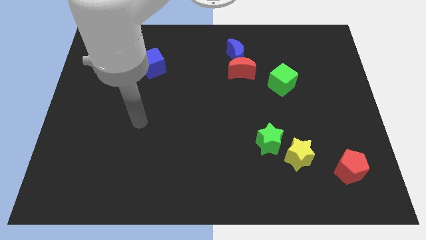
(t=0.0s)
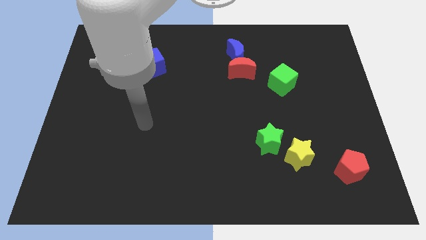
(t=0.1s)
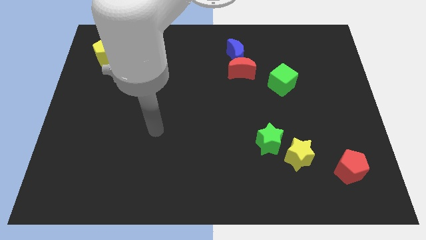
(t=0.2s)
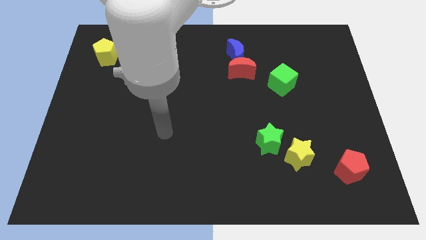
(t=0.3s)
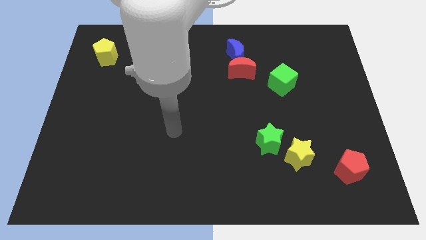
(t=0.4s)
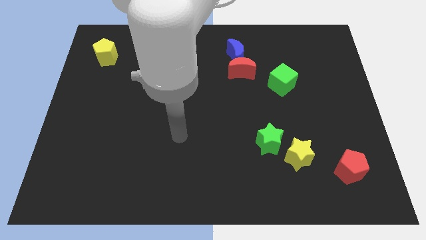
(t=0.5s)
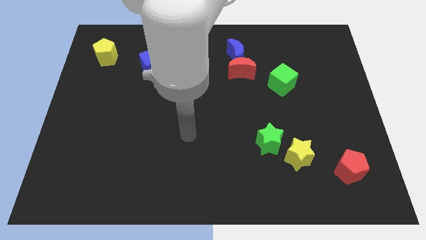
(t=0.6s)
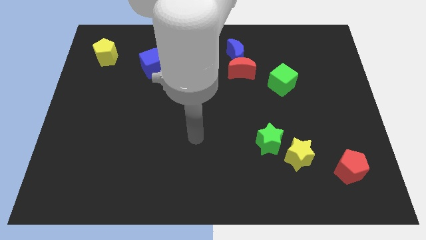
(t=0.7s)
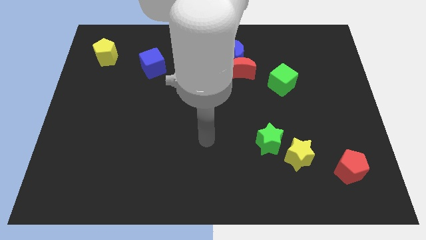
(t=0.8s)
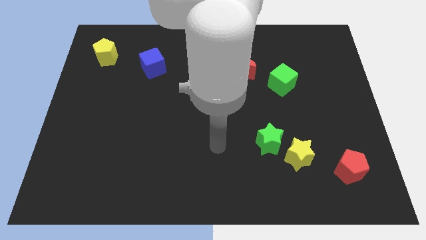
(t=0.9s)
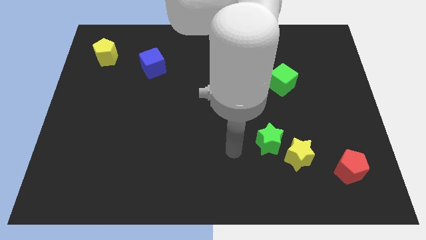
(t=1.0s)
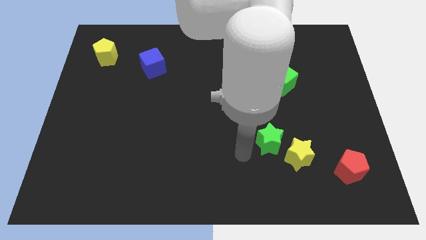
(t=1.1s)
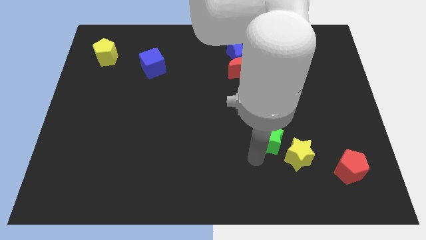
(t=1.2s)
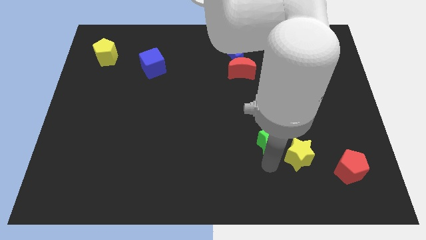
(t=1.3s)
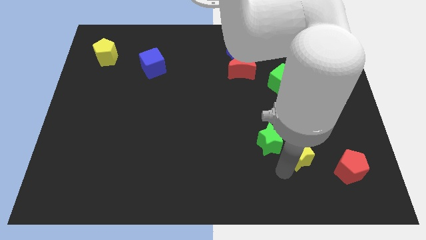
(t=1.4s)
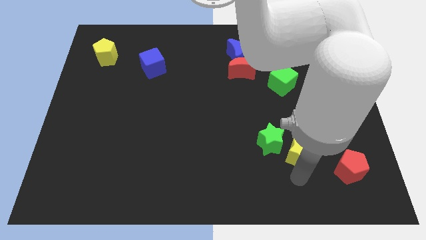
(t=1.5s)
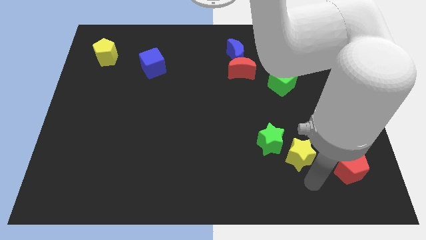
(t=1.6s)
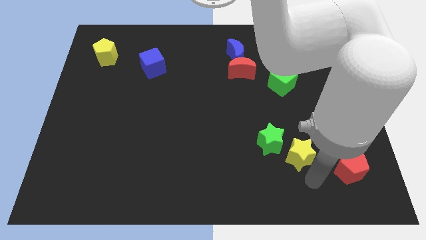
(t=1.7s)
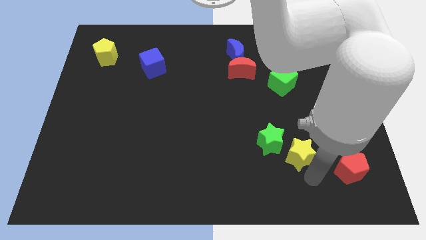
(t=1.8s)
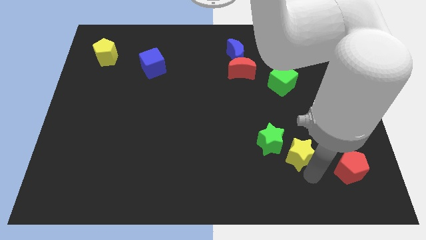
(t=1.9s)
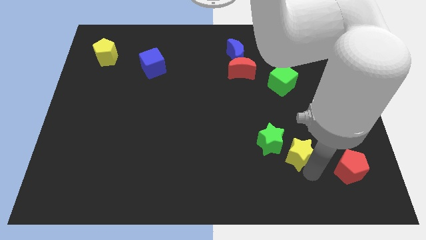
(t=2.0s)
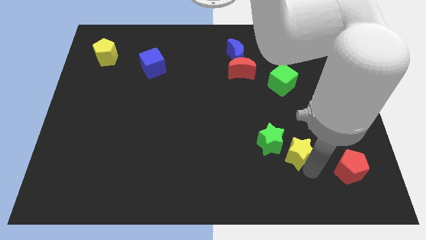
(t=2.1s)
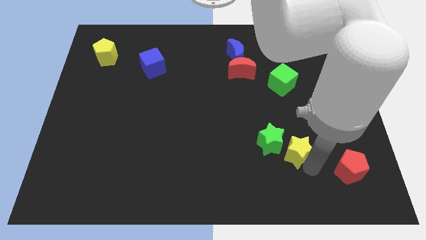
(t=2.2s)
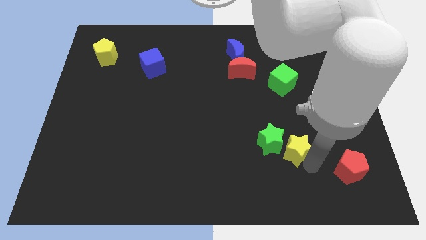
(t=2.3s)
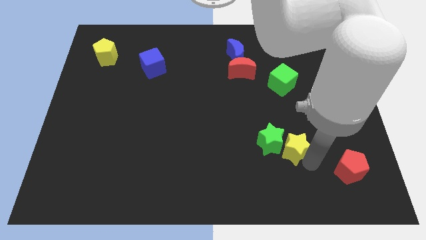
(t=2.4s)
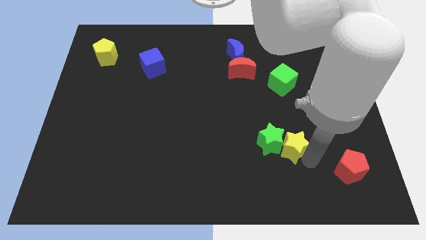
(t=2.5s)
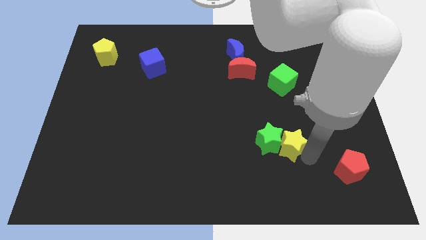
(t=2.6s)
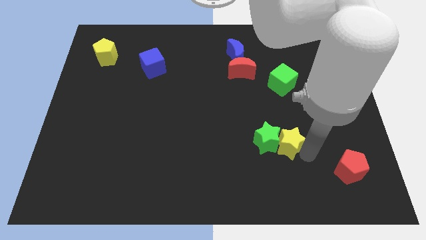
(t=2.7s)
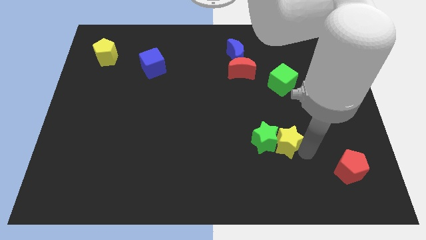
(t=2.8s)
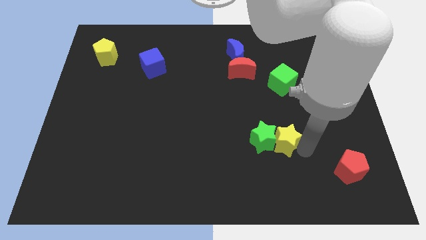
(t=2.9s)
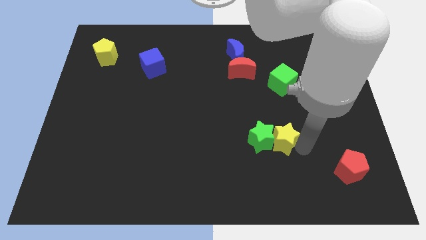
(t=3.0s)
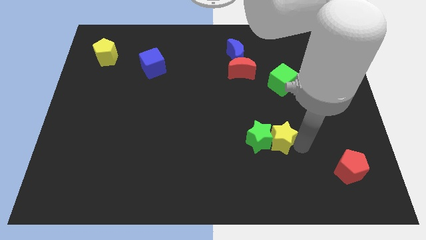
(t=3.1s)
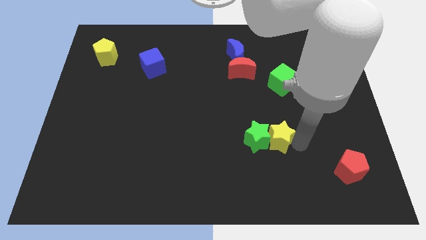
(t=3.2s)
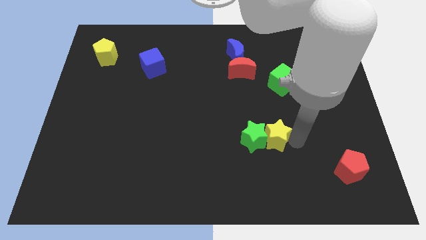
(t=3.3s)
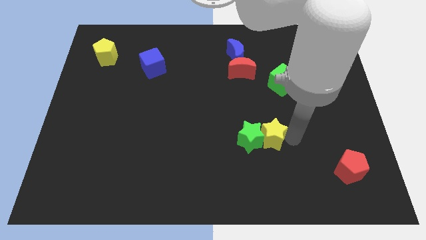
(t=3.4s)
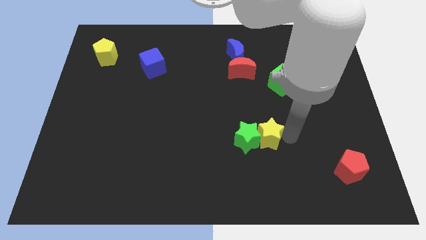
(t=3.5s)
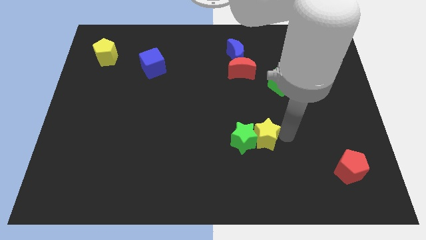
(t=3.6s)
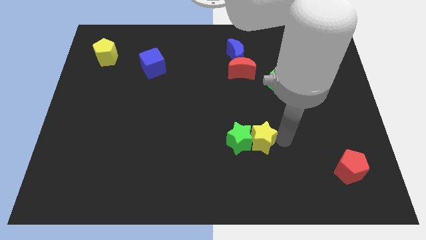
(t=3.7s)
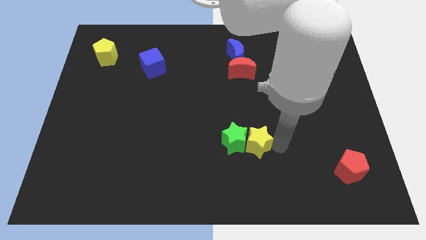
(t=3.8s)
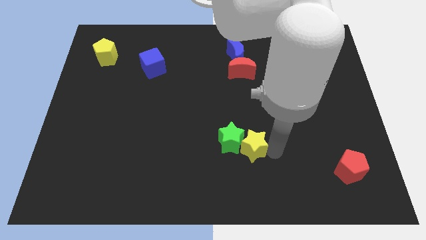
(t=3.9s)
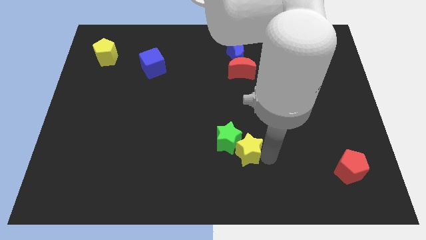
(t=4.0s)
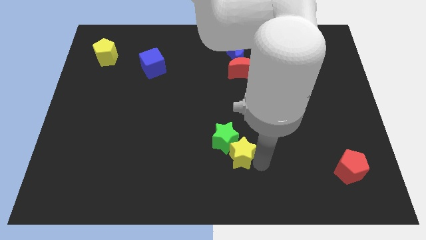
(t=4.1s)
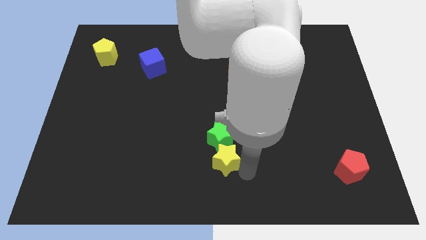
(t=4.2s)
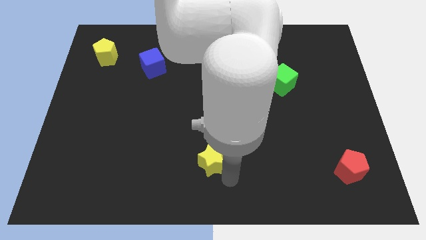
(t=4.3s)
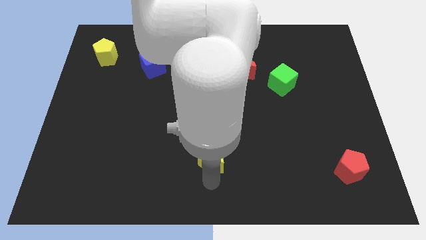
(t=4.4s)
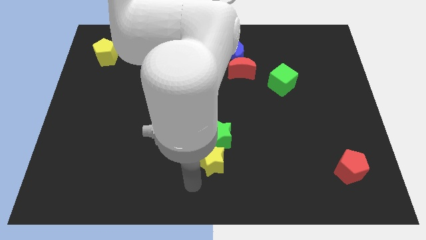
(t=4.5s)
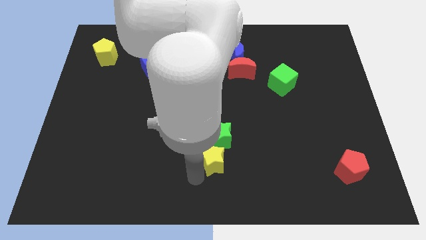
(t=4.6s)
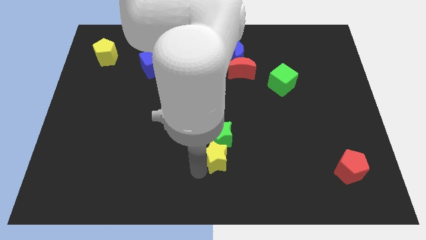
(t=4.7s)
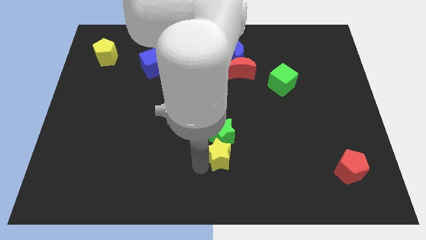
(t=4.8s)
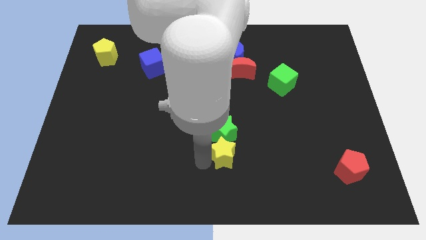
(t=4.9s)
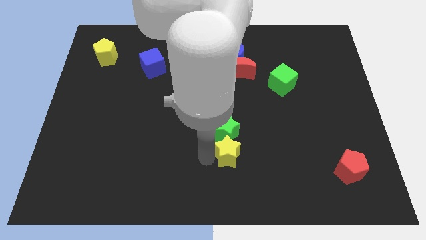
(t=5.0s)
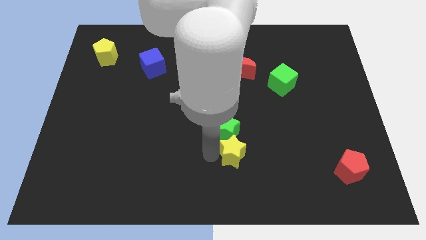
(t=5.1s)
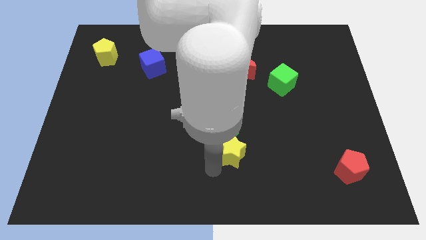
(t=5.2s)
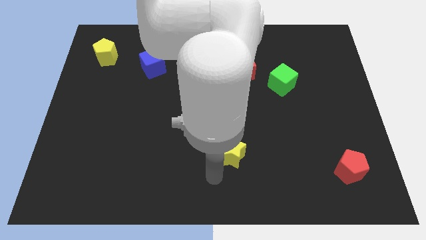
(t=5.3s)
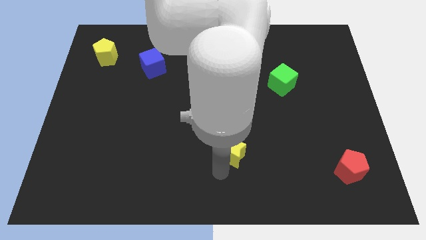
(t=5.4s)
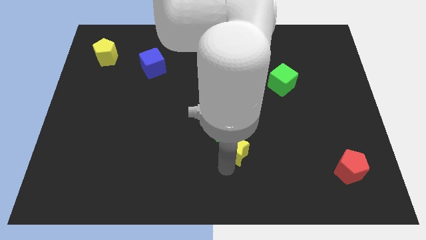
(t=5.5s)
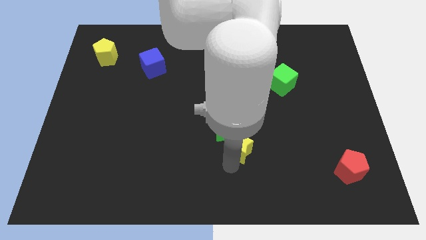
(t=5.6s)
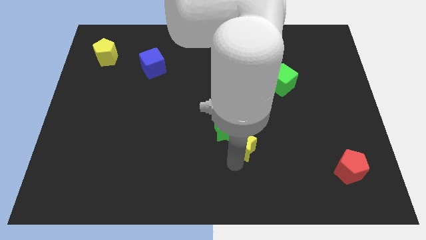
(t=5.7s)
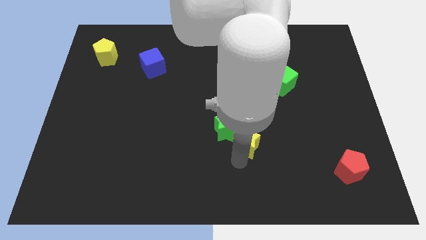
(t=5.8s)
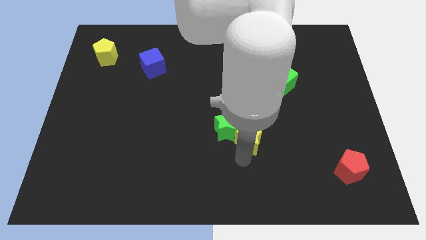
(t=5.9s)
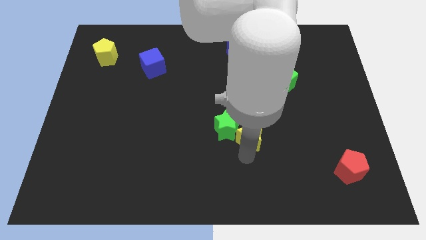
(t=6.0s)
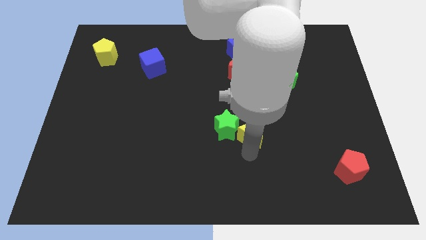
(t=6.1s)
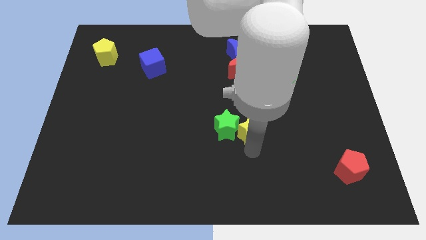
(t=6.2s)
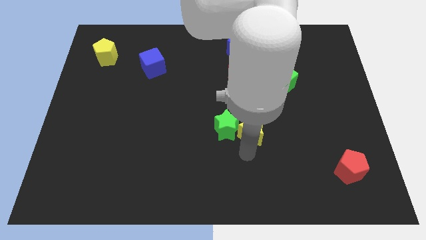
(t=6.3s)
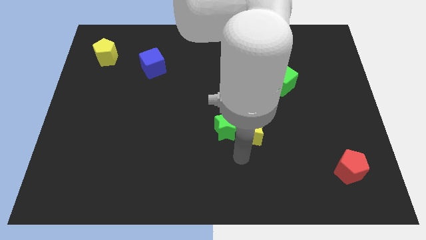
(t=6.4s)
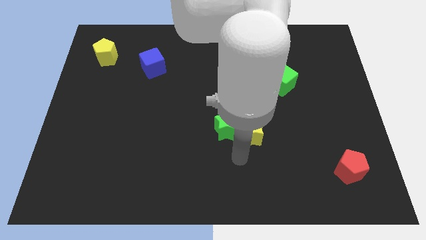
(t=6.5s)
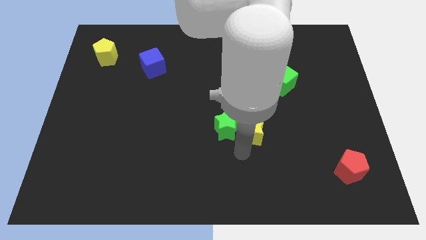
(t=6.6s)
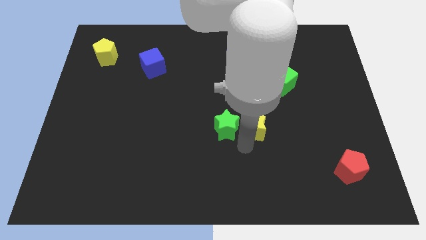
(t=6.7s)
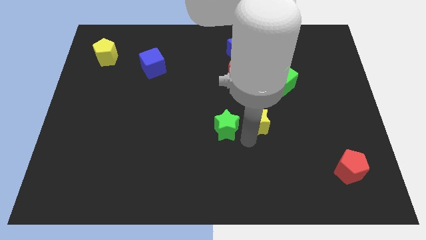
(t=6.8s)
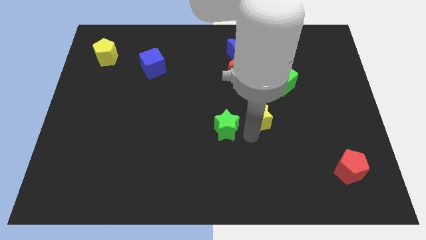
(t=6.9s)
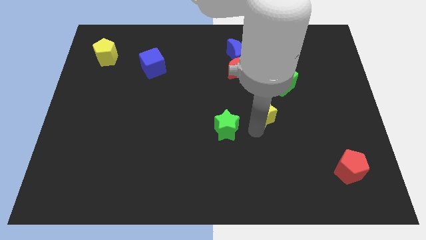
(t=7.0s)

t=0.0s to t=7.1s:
move the yellow star below the red moon

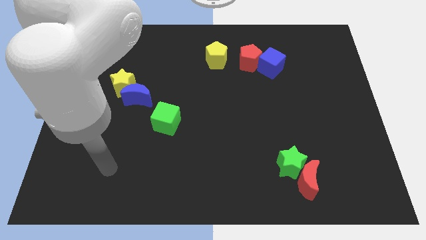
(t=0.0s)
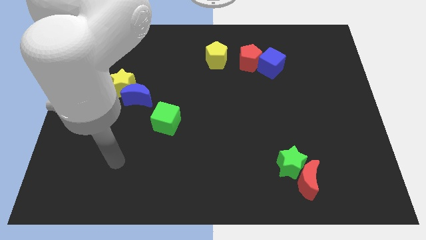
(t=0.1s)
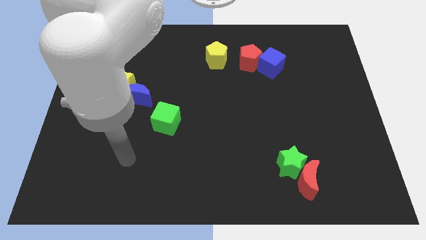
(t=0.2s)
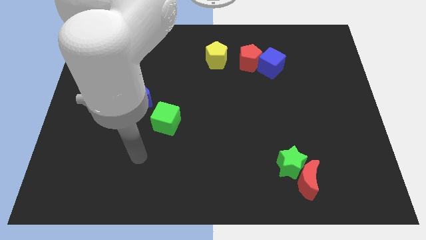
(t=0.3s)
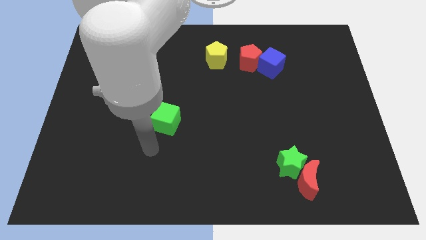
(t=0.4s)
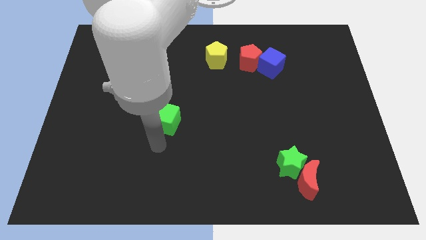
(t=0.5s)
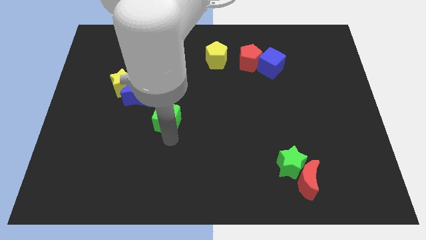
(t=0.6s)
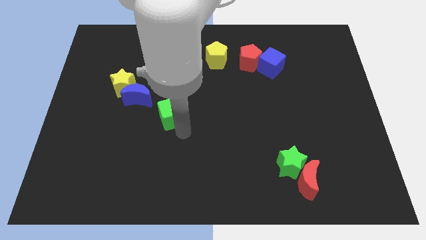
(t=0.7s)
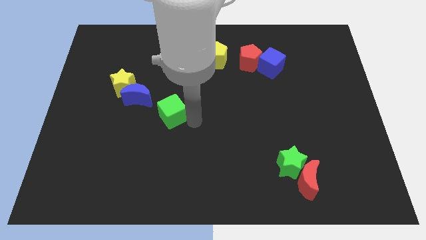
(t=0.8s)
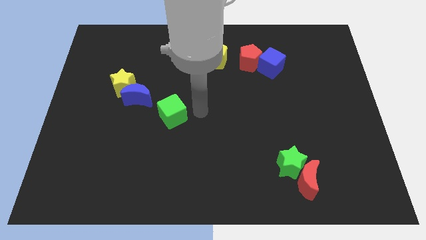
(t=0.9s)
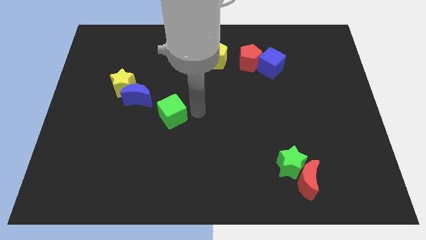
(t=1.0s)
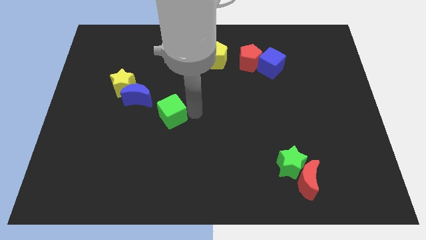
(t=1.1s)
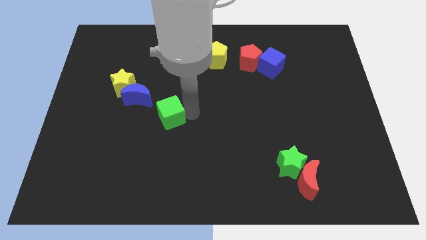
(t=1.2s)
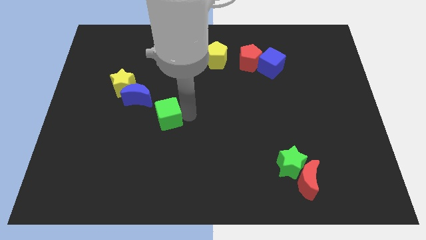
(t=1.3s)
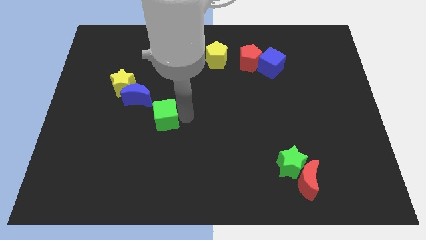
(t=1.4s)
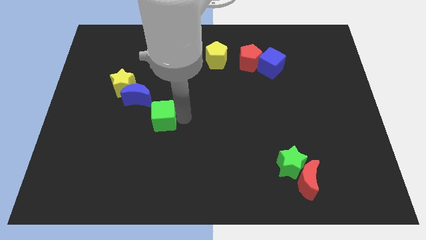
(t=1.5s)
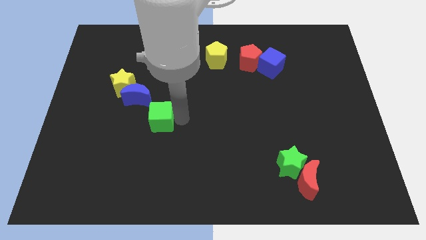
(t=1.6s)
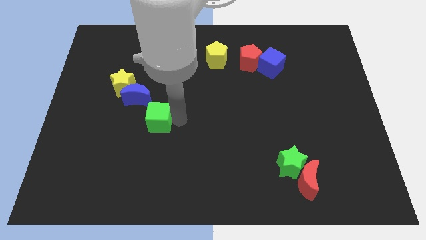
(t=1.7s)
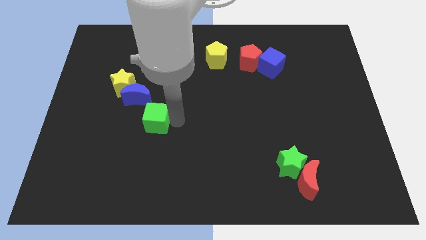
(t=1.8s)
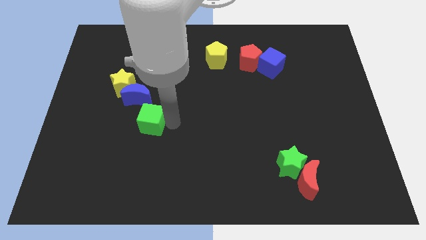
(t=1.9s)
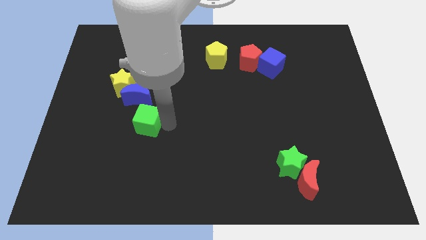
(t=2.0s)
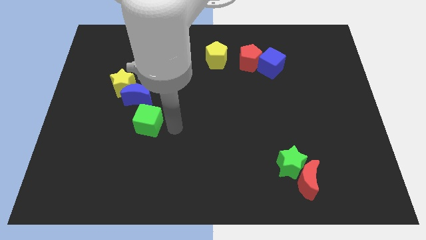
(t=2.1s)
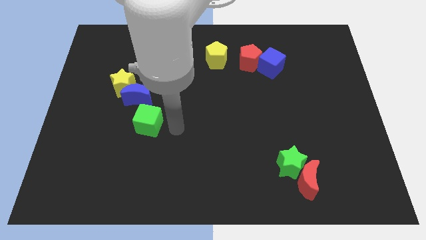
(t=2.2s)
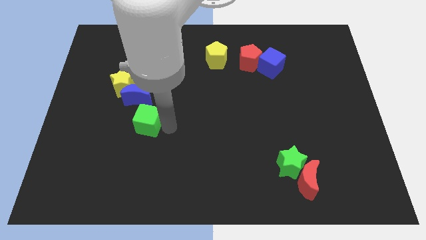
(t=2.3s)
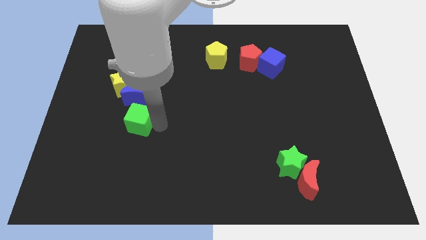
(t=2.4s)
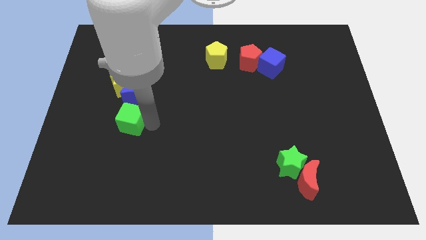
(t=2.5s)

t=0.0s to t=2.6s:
put the green cube diagonally down and to the left of the blue moon
